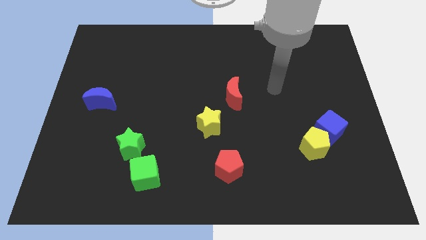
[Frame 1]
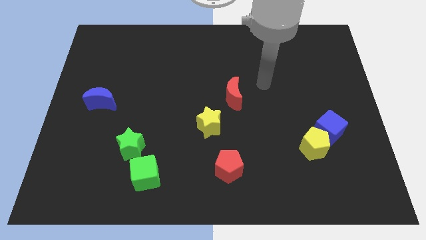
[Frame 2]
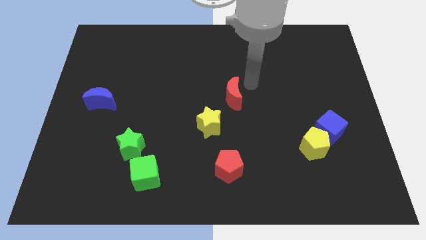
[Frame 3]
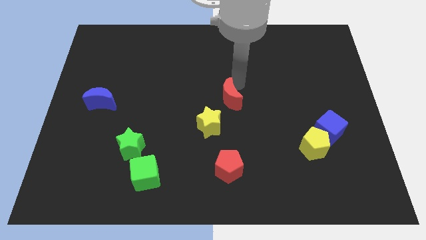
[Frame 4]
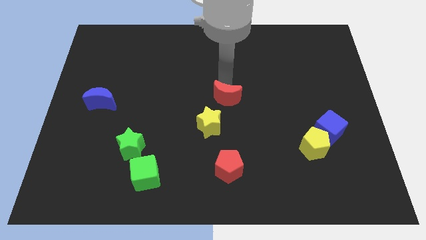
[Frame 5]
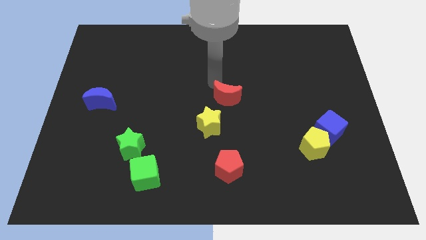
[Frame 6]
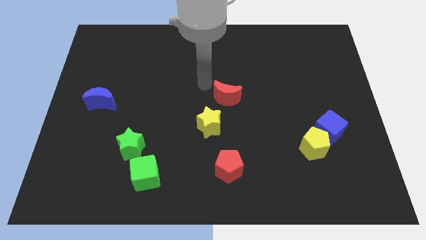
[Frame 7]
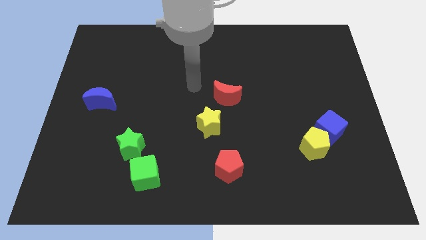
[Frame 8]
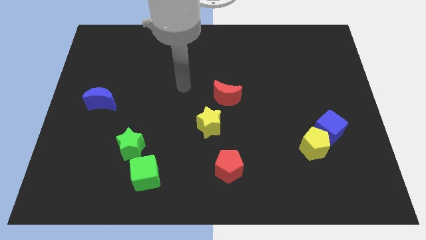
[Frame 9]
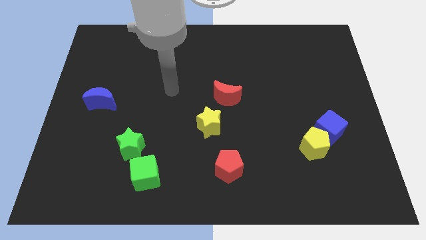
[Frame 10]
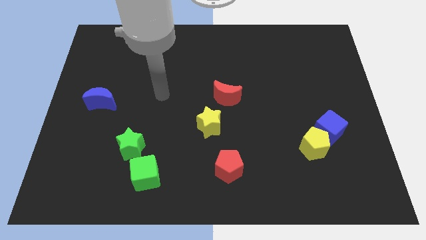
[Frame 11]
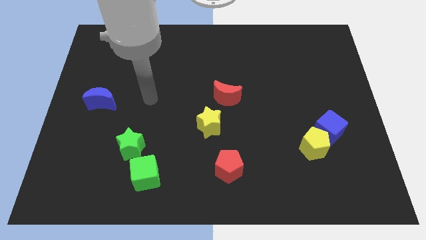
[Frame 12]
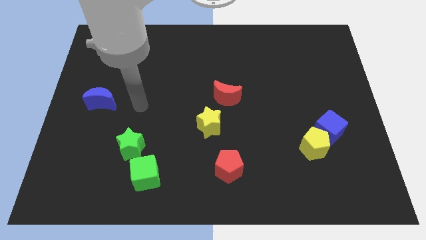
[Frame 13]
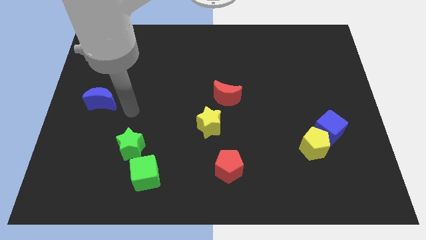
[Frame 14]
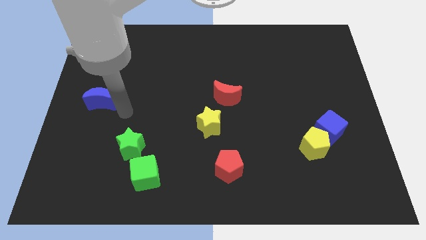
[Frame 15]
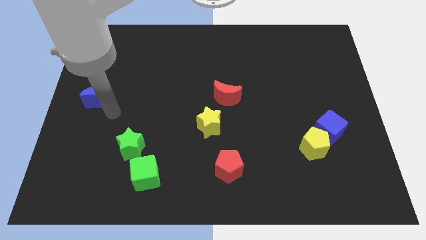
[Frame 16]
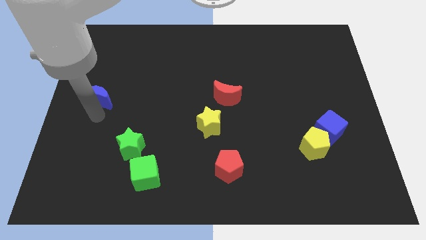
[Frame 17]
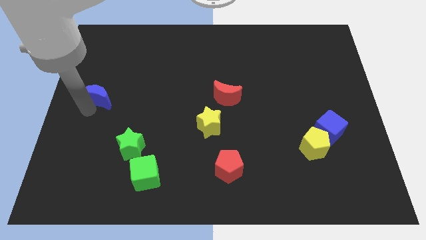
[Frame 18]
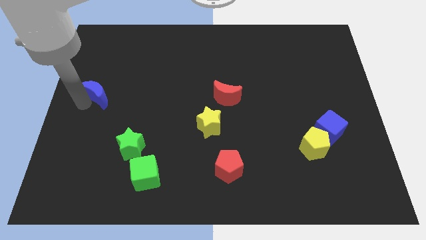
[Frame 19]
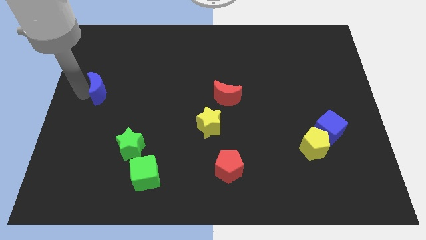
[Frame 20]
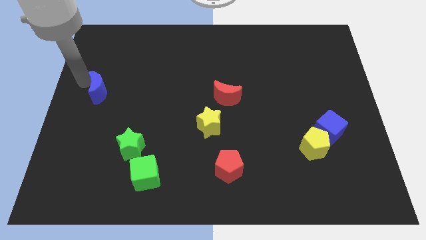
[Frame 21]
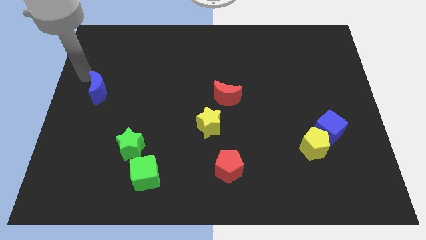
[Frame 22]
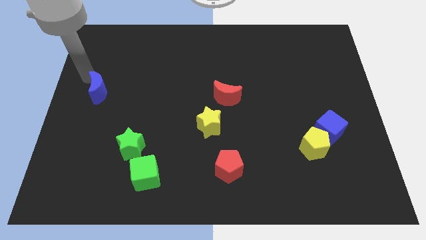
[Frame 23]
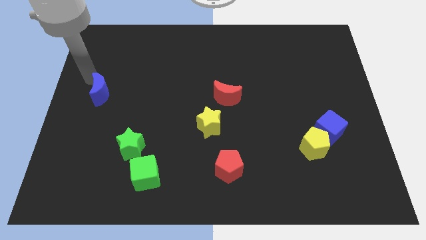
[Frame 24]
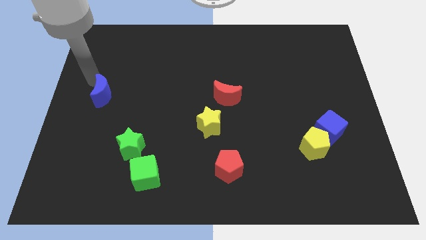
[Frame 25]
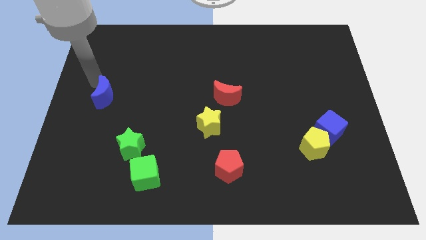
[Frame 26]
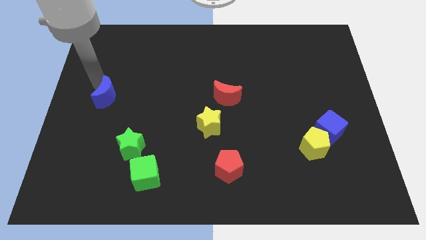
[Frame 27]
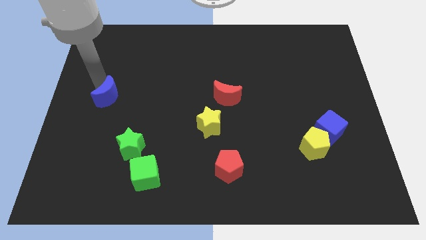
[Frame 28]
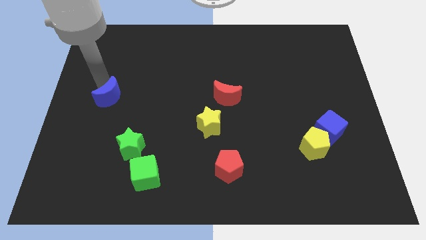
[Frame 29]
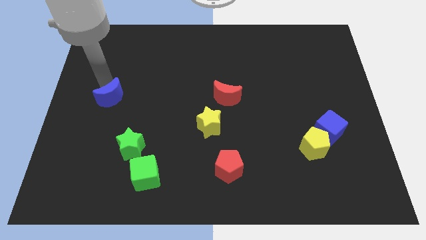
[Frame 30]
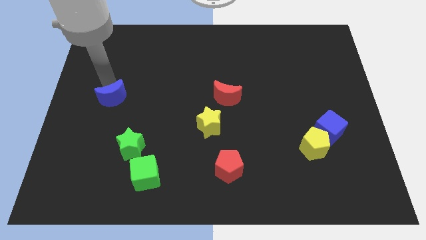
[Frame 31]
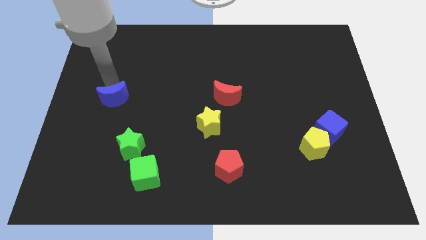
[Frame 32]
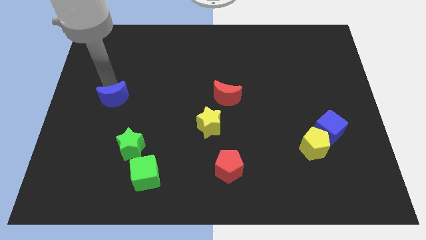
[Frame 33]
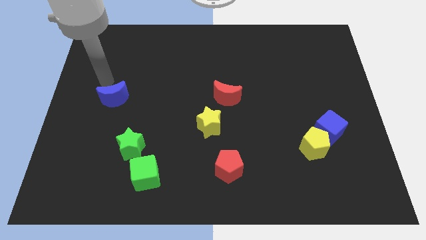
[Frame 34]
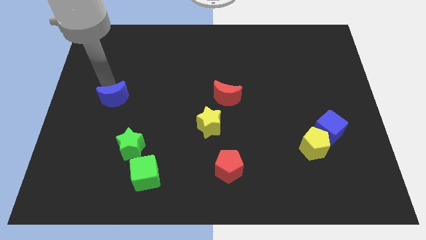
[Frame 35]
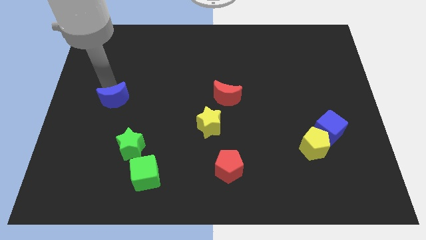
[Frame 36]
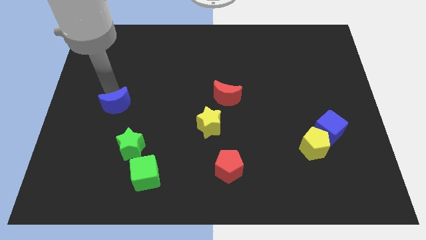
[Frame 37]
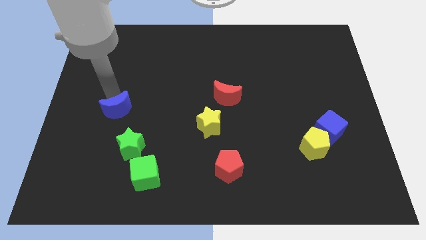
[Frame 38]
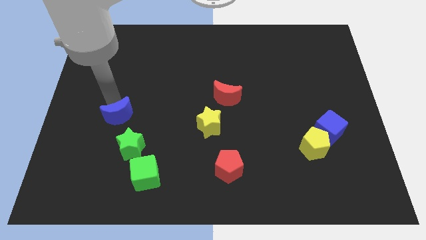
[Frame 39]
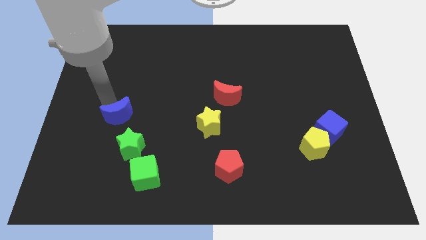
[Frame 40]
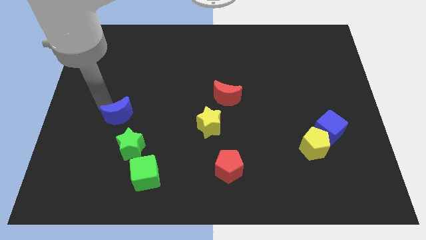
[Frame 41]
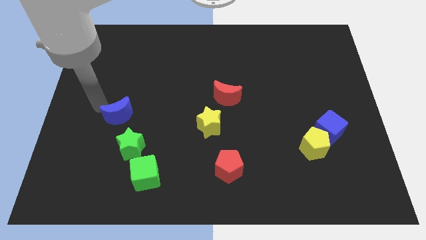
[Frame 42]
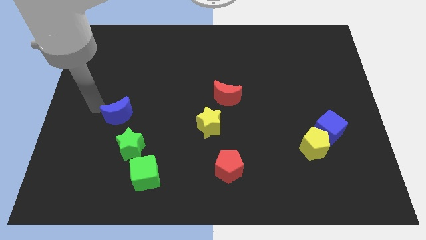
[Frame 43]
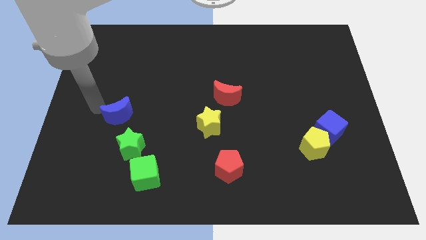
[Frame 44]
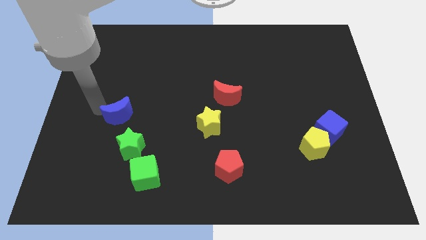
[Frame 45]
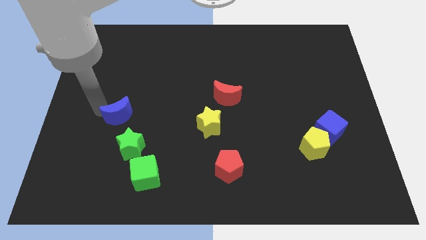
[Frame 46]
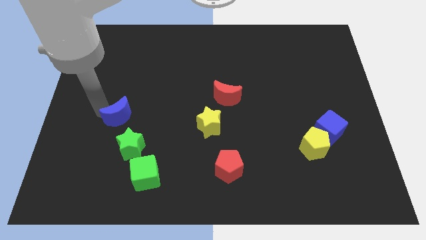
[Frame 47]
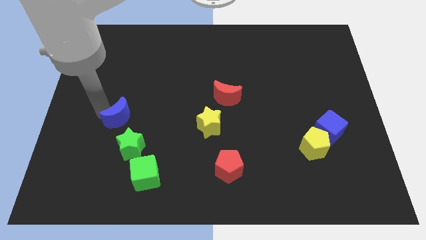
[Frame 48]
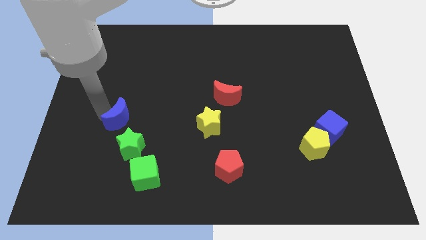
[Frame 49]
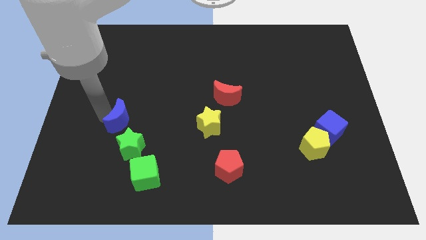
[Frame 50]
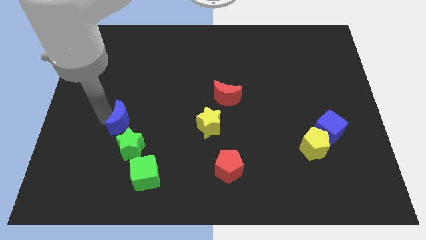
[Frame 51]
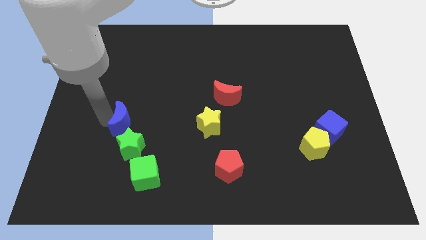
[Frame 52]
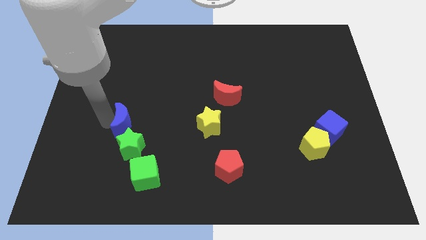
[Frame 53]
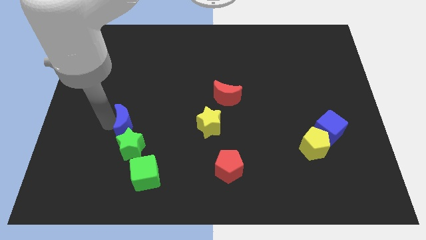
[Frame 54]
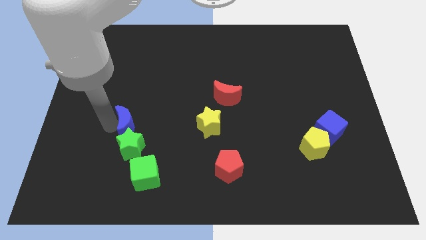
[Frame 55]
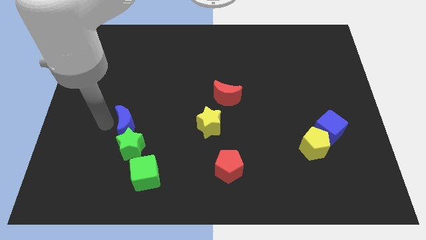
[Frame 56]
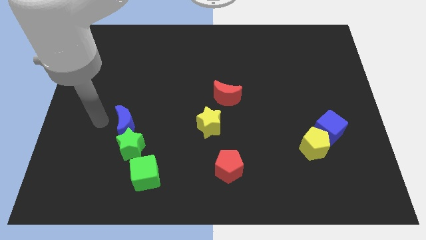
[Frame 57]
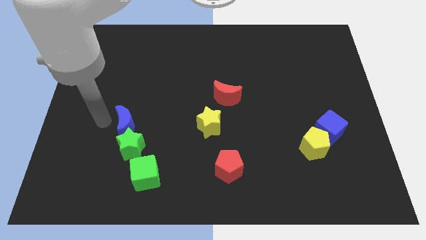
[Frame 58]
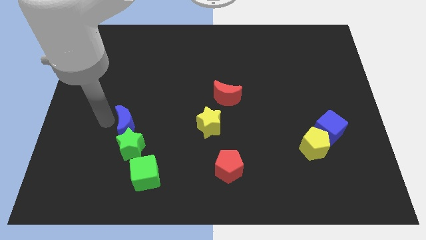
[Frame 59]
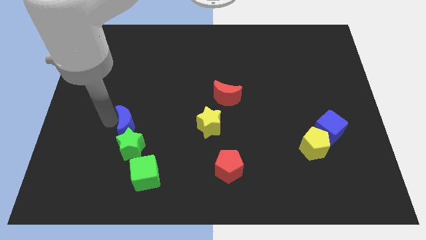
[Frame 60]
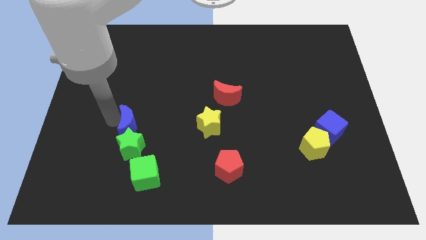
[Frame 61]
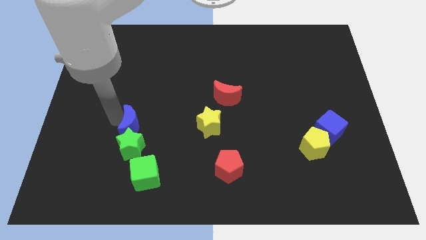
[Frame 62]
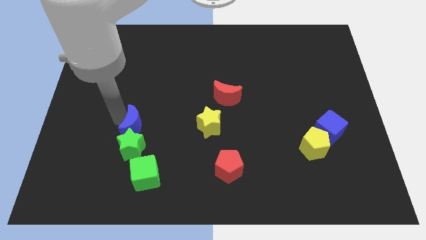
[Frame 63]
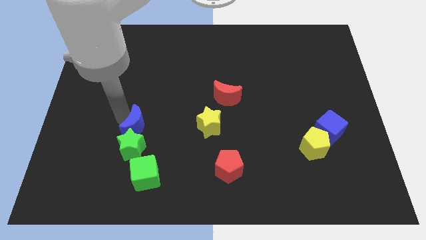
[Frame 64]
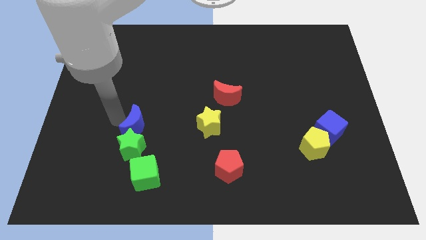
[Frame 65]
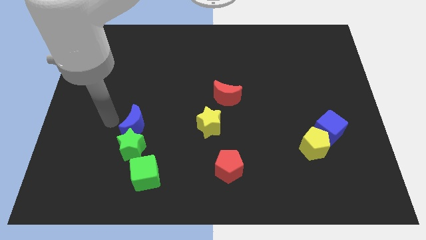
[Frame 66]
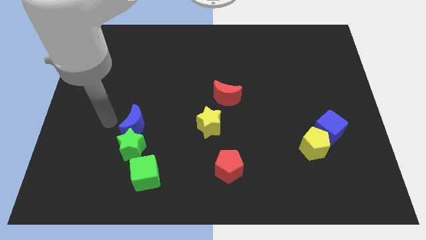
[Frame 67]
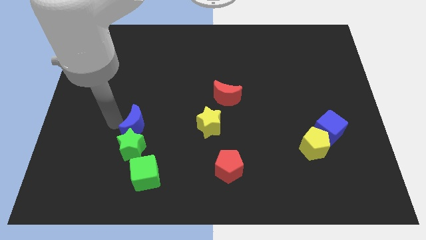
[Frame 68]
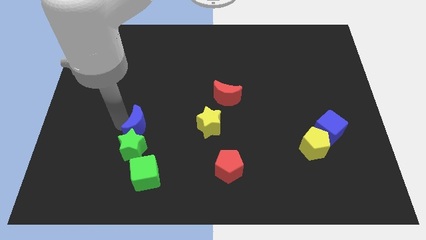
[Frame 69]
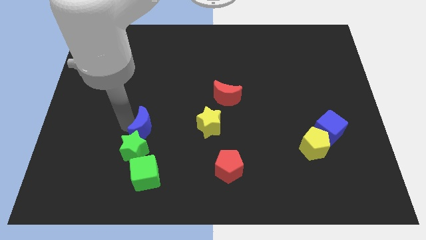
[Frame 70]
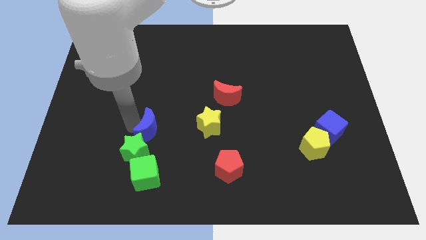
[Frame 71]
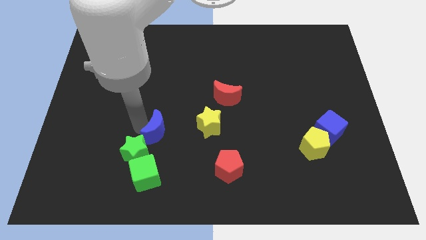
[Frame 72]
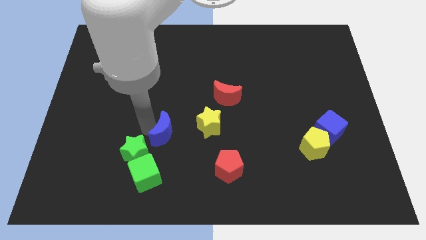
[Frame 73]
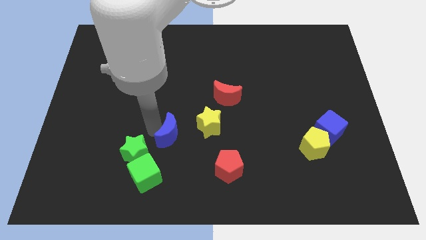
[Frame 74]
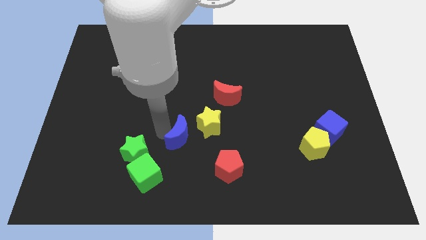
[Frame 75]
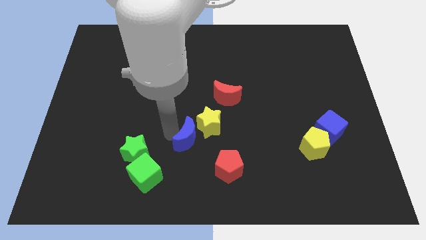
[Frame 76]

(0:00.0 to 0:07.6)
push the blue moon to the top left side of the red pentagon
